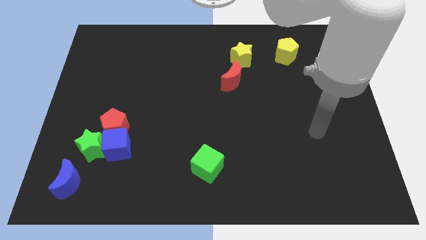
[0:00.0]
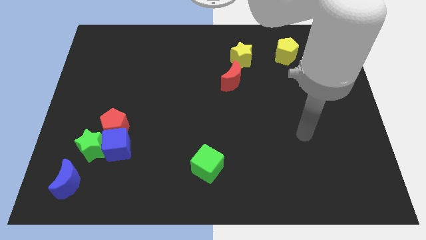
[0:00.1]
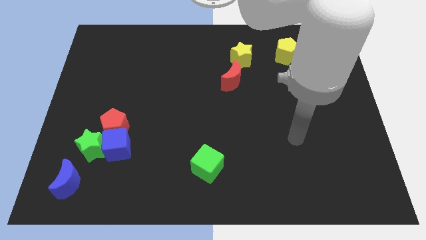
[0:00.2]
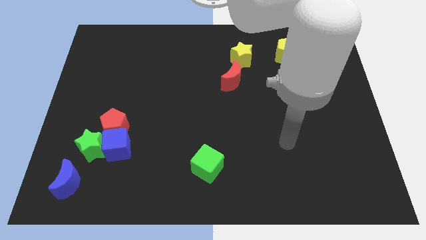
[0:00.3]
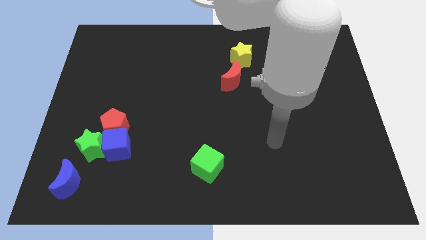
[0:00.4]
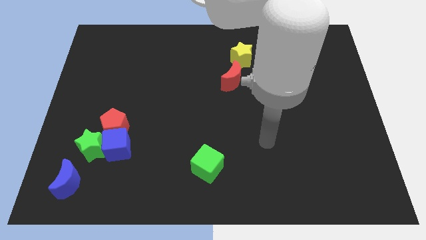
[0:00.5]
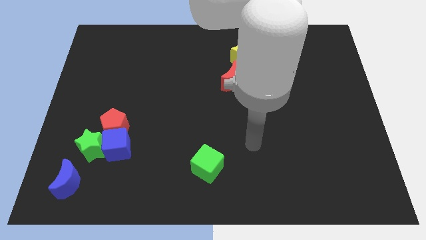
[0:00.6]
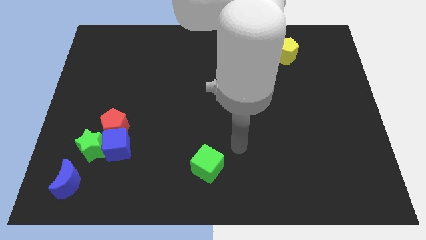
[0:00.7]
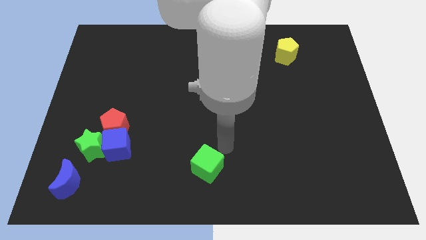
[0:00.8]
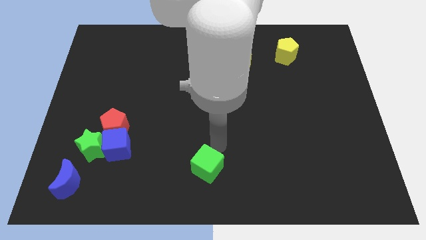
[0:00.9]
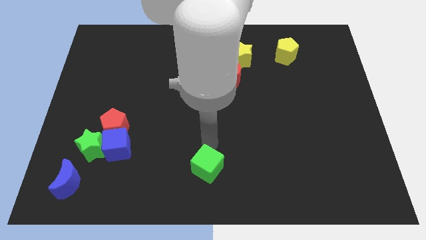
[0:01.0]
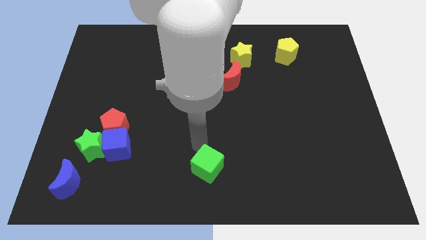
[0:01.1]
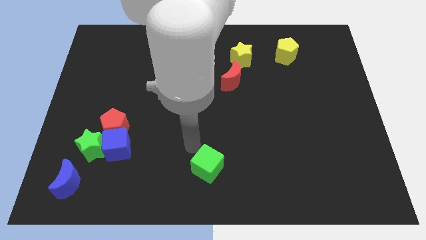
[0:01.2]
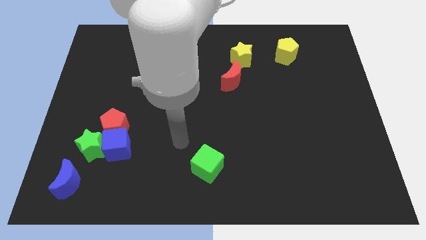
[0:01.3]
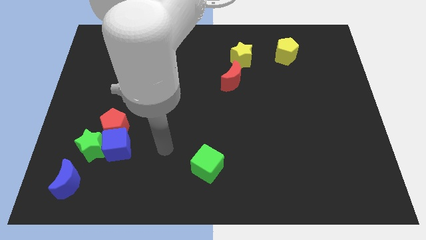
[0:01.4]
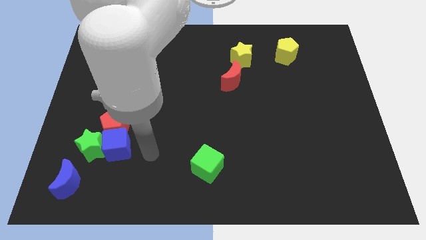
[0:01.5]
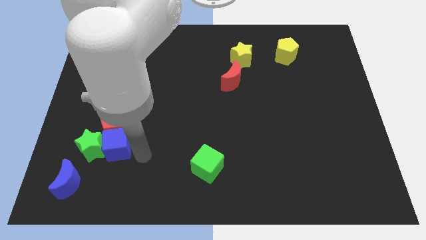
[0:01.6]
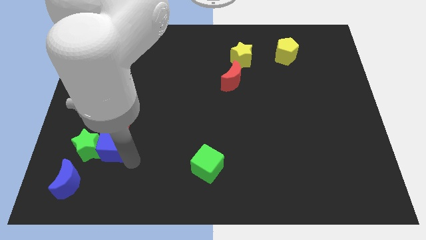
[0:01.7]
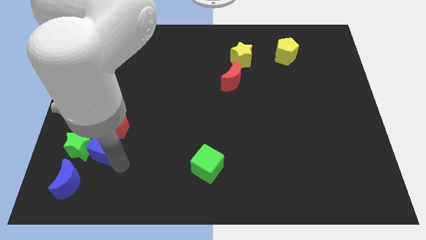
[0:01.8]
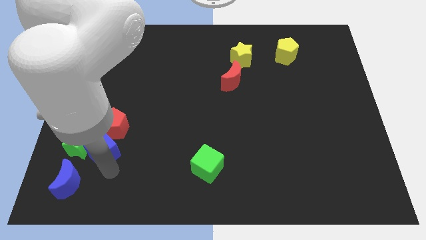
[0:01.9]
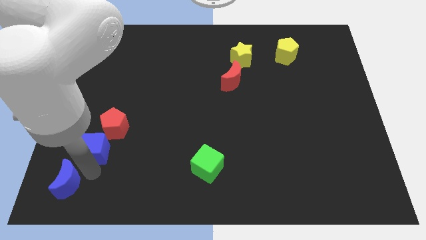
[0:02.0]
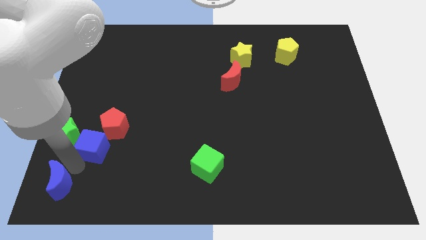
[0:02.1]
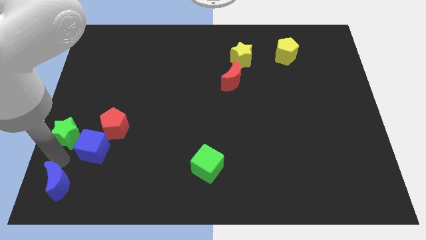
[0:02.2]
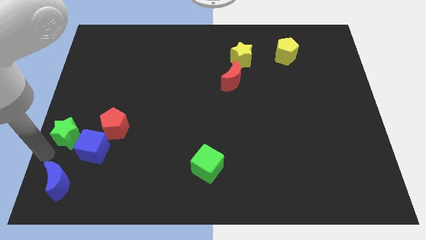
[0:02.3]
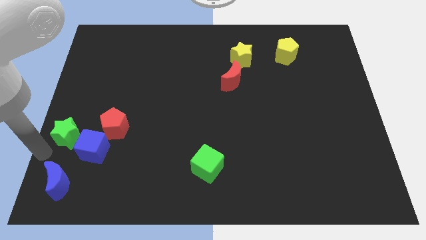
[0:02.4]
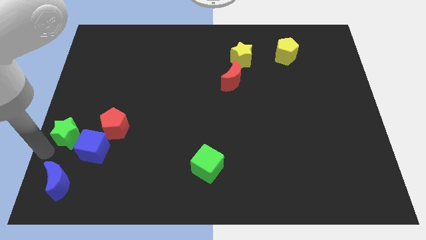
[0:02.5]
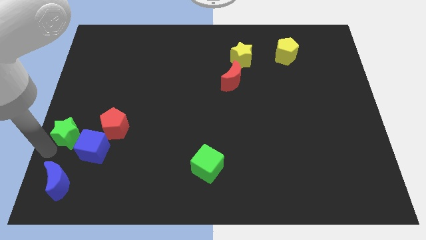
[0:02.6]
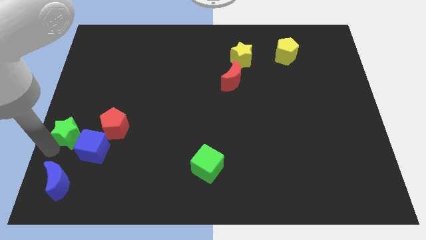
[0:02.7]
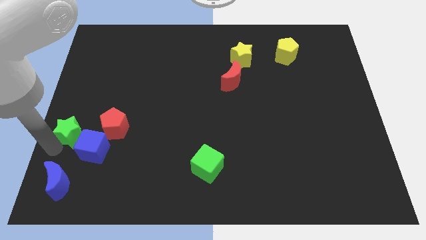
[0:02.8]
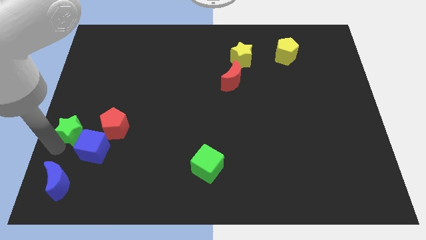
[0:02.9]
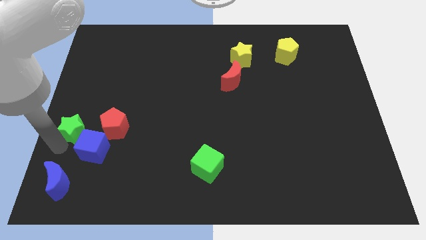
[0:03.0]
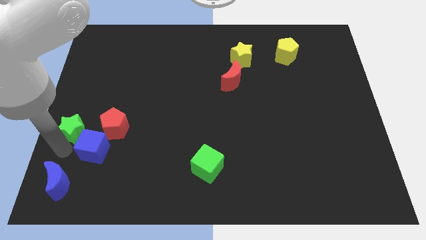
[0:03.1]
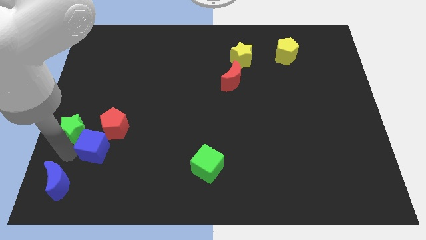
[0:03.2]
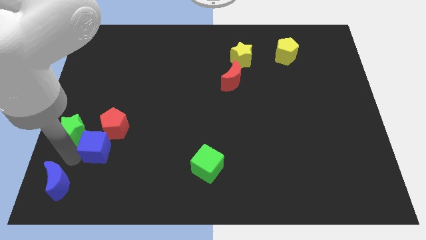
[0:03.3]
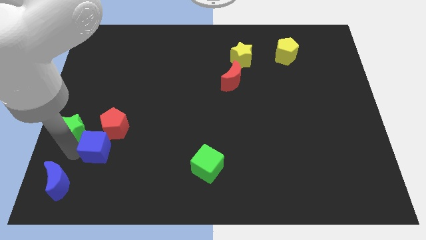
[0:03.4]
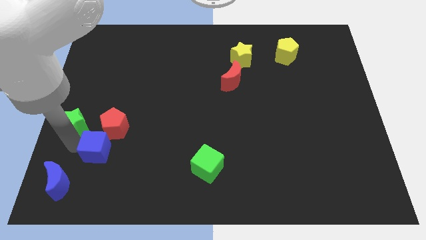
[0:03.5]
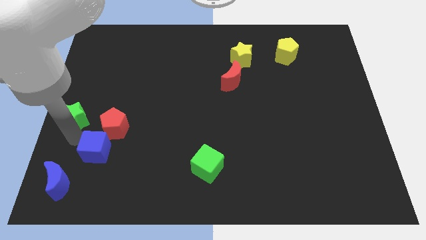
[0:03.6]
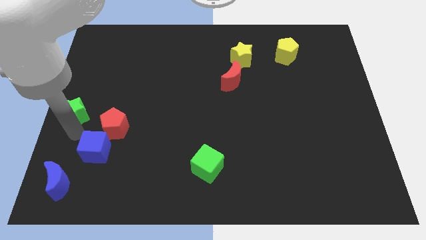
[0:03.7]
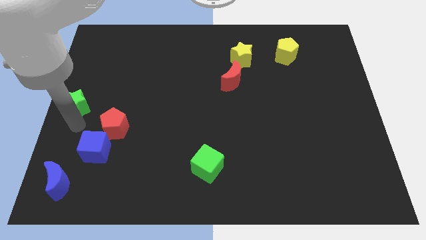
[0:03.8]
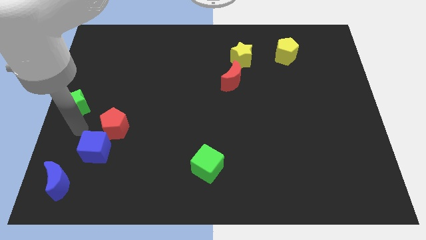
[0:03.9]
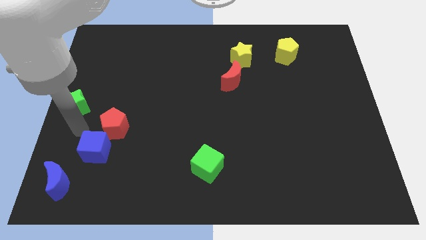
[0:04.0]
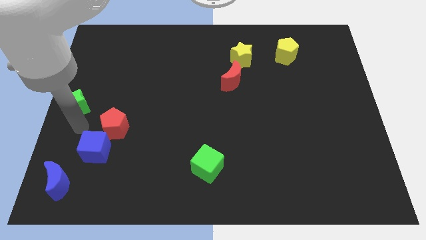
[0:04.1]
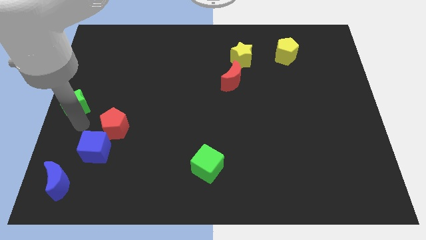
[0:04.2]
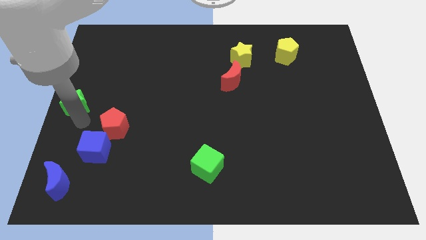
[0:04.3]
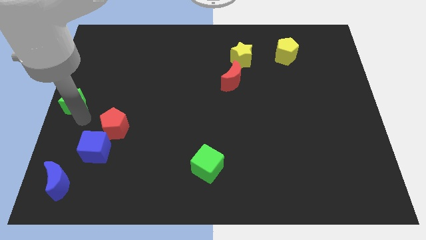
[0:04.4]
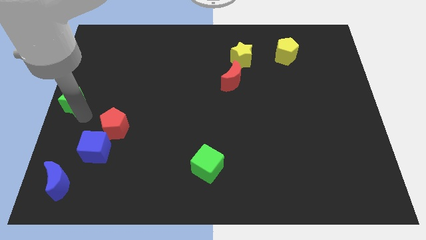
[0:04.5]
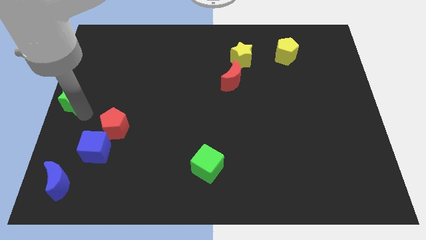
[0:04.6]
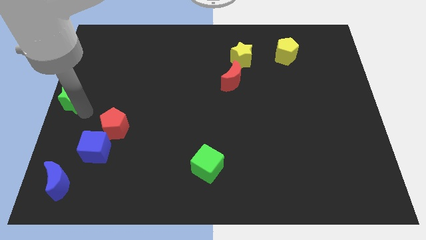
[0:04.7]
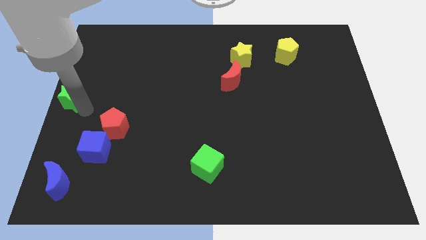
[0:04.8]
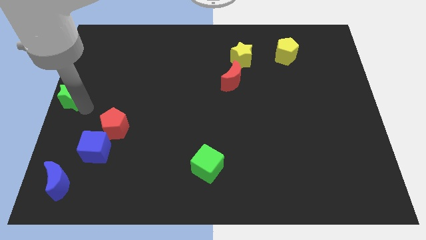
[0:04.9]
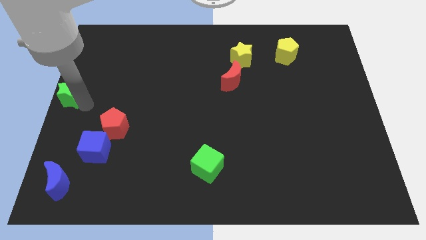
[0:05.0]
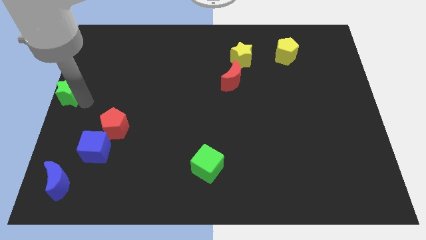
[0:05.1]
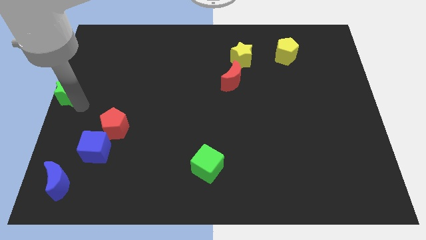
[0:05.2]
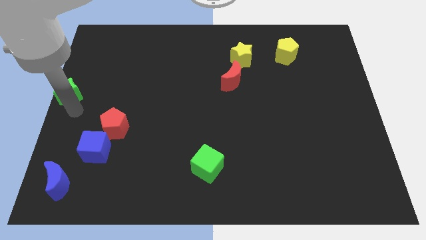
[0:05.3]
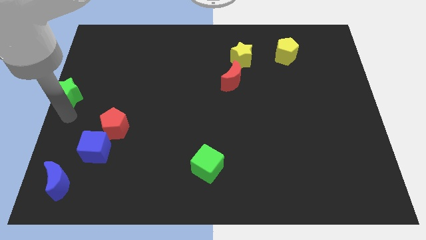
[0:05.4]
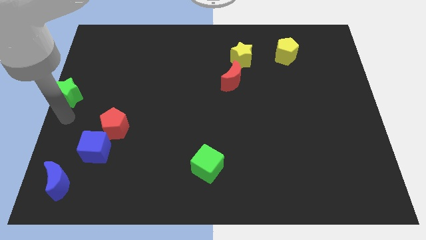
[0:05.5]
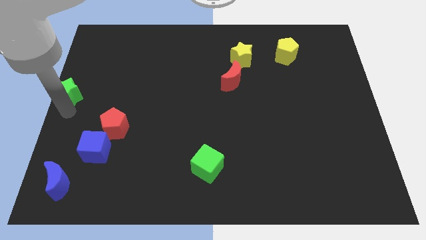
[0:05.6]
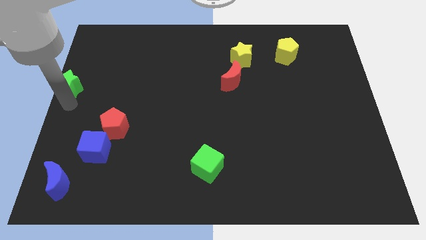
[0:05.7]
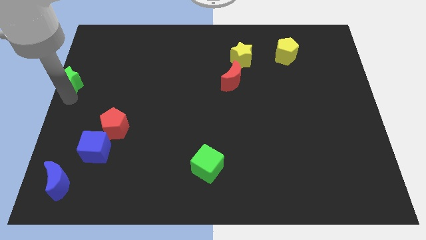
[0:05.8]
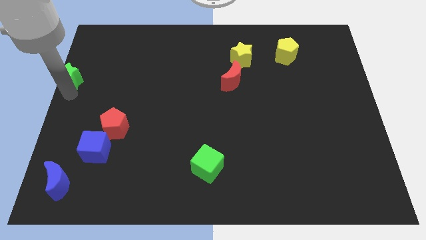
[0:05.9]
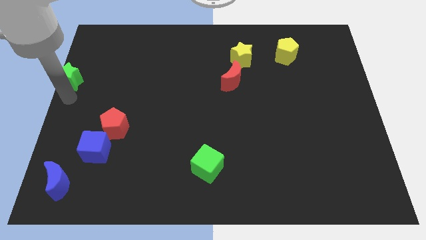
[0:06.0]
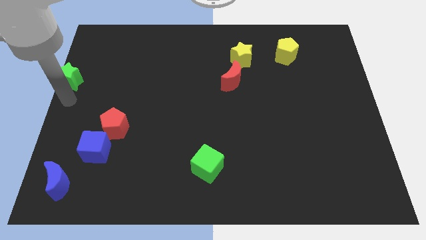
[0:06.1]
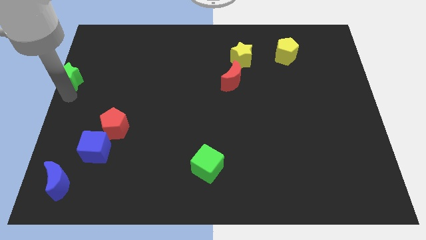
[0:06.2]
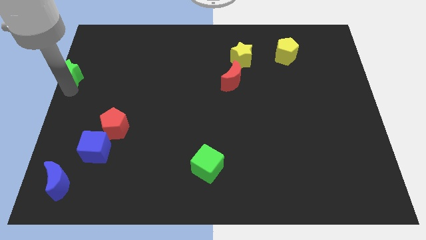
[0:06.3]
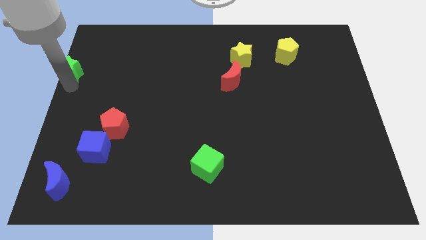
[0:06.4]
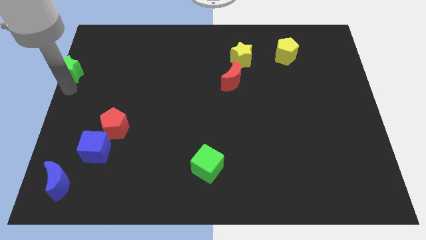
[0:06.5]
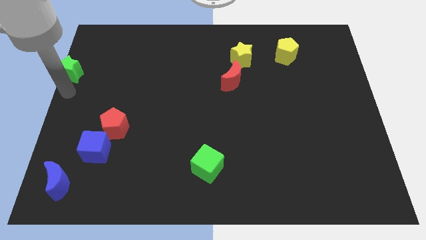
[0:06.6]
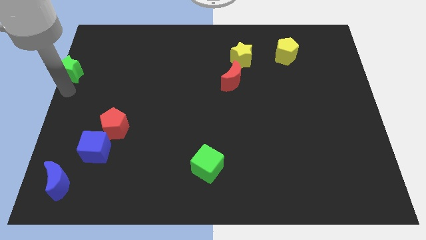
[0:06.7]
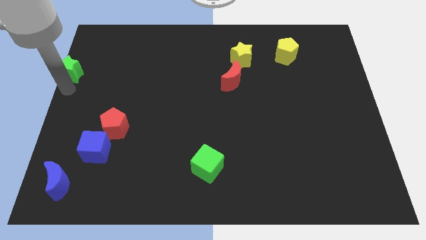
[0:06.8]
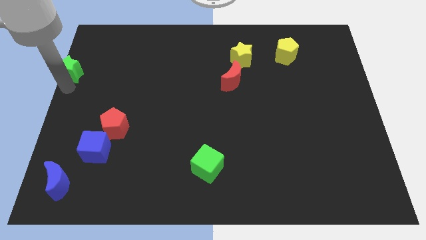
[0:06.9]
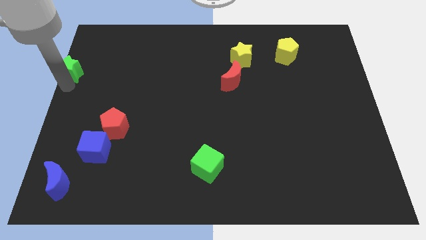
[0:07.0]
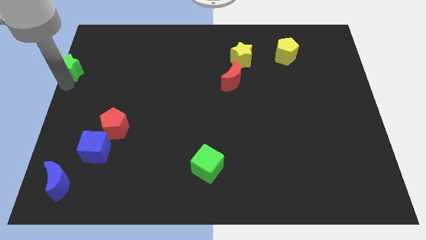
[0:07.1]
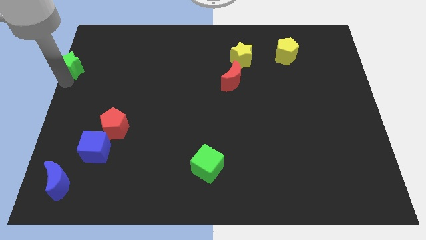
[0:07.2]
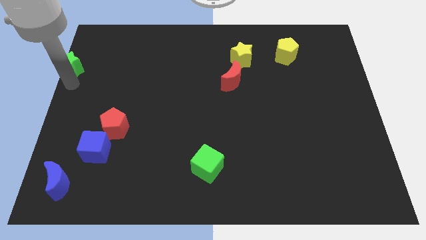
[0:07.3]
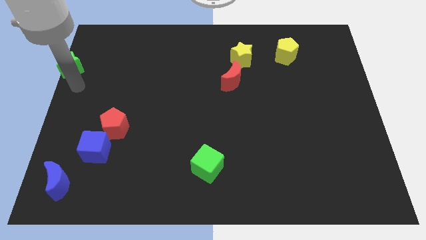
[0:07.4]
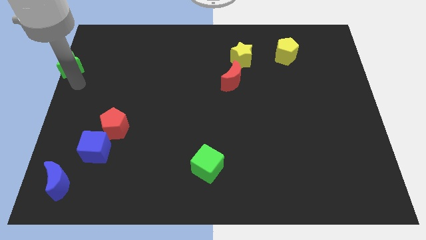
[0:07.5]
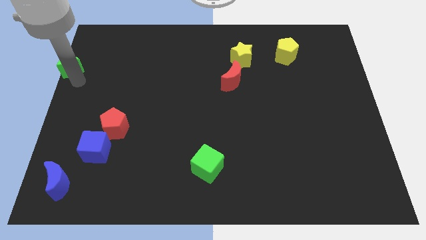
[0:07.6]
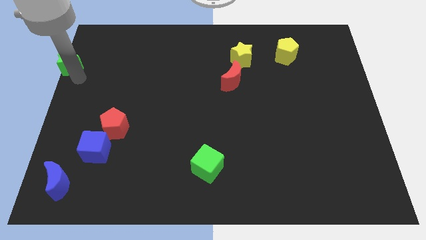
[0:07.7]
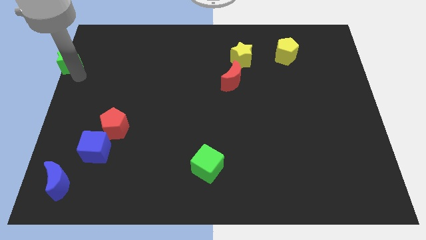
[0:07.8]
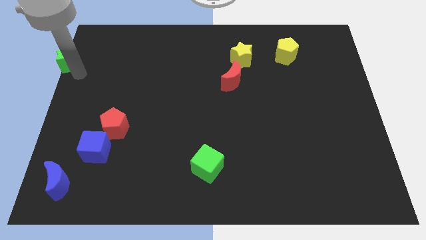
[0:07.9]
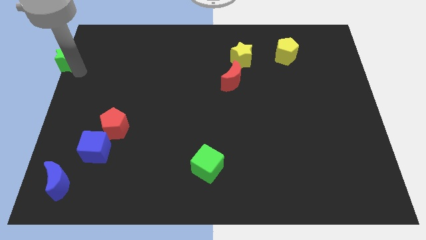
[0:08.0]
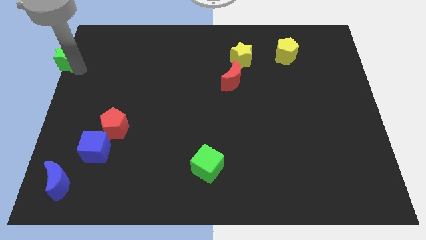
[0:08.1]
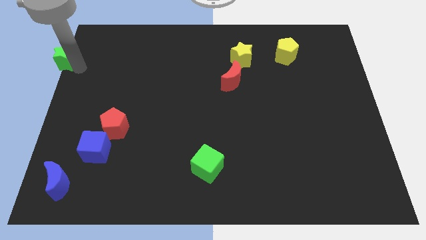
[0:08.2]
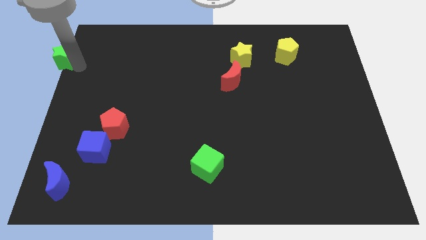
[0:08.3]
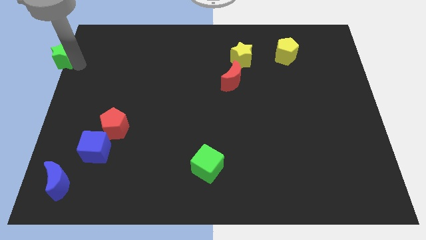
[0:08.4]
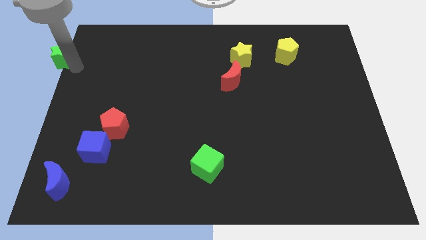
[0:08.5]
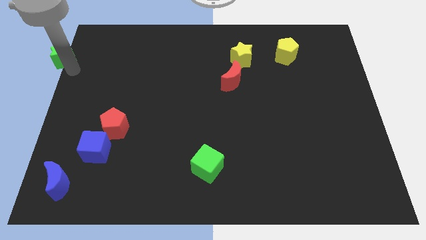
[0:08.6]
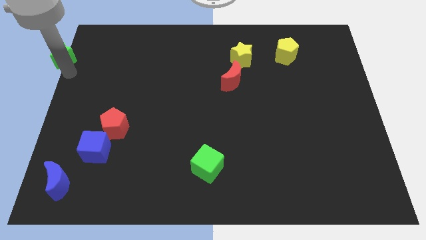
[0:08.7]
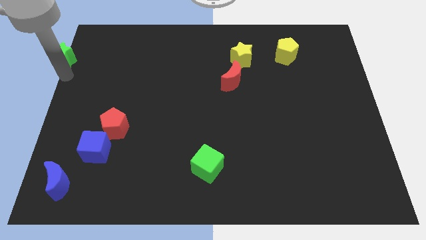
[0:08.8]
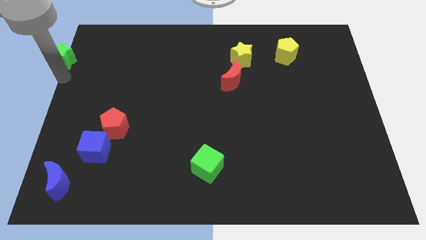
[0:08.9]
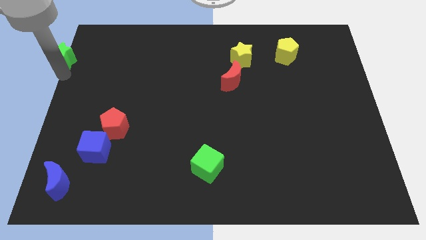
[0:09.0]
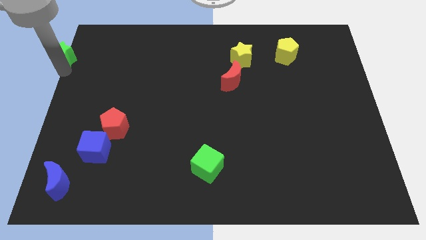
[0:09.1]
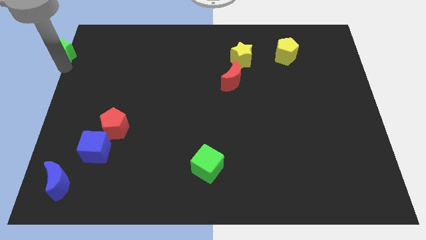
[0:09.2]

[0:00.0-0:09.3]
push the green star to the top left of the board
